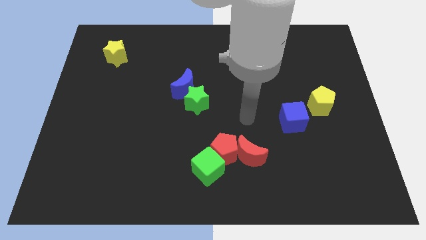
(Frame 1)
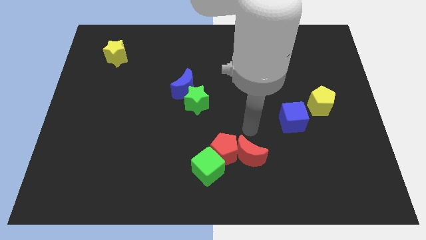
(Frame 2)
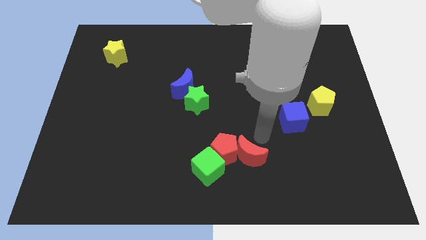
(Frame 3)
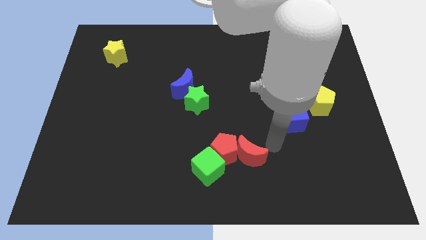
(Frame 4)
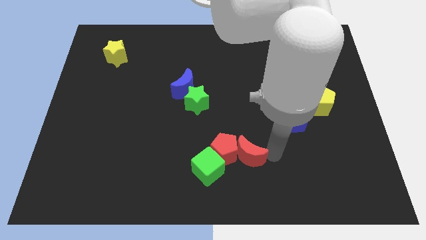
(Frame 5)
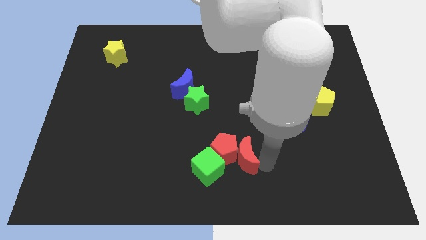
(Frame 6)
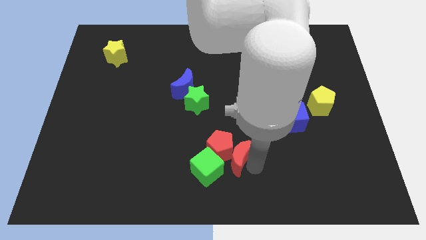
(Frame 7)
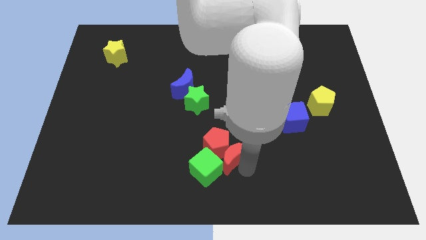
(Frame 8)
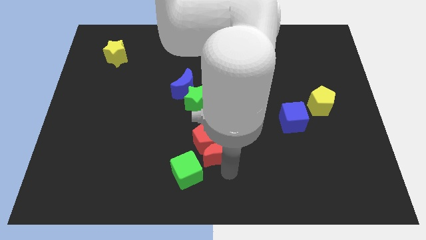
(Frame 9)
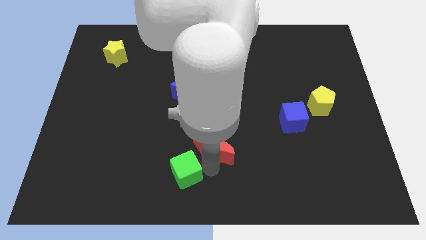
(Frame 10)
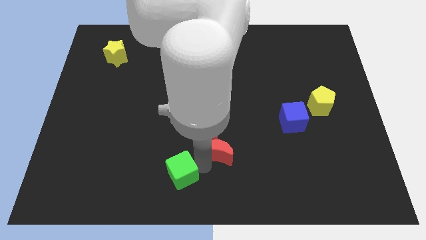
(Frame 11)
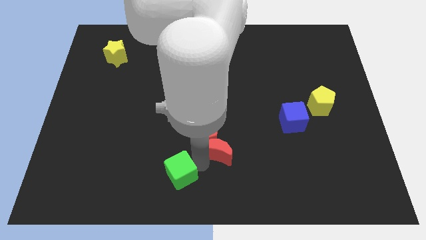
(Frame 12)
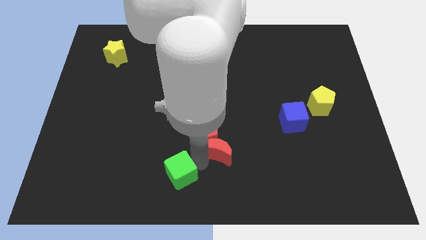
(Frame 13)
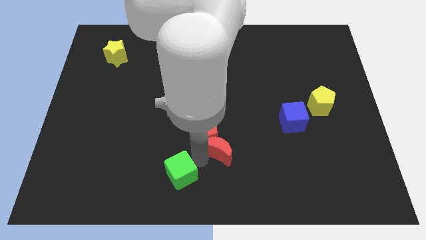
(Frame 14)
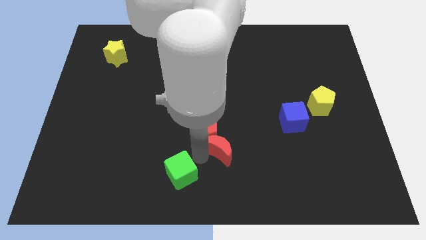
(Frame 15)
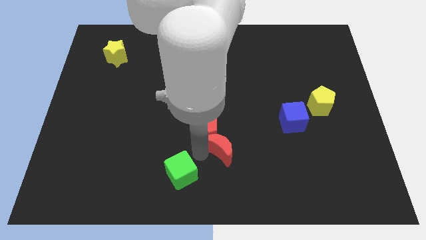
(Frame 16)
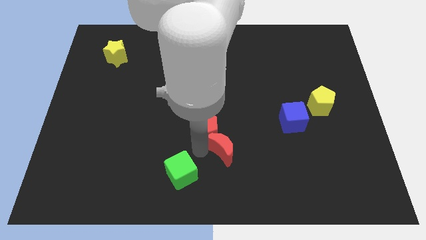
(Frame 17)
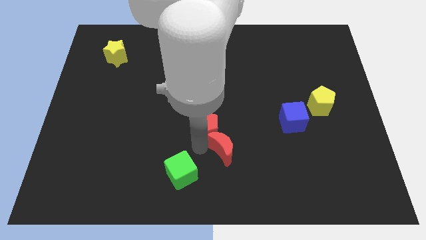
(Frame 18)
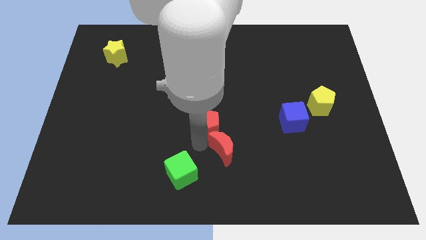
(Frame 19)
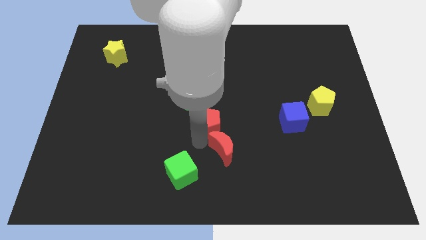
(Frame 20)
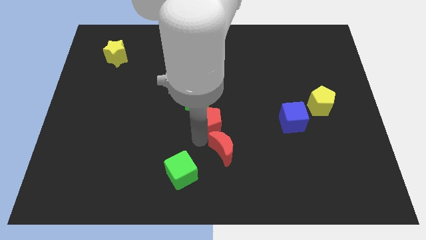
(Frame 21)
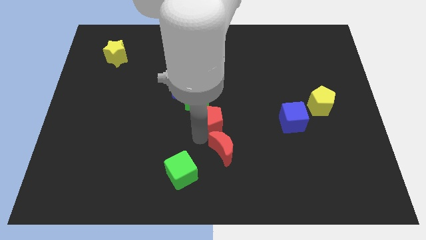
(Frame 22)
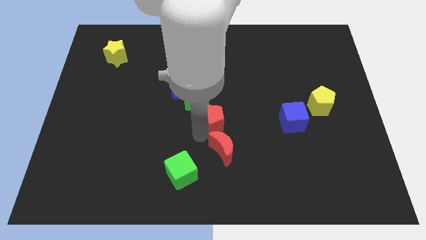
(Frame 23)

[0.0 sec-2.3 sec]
separate the red pentagon from the red moon and green cube

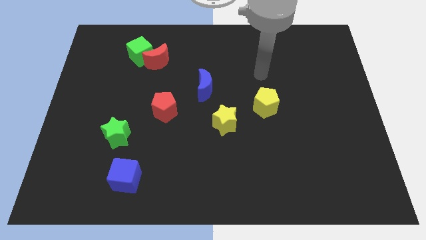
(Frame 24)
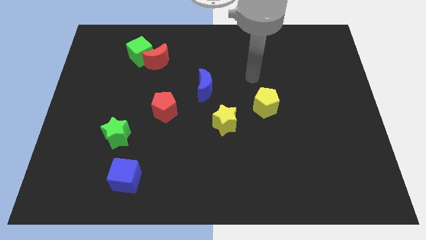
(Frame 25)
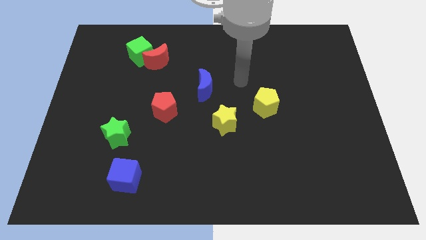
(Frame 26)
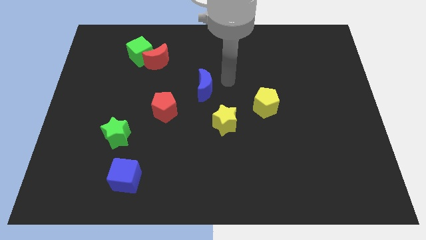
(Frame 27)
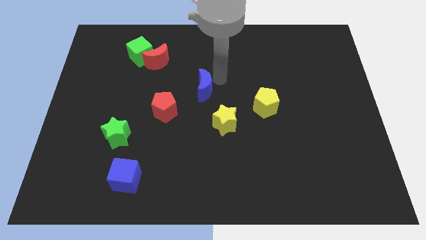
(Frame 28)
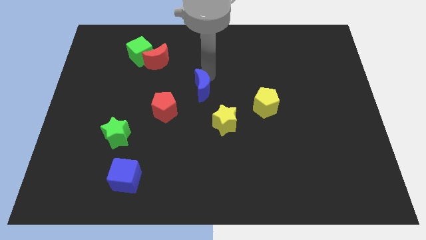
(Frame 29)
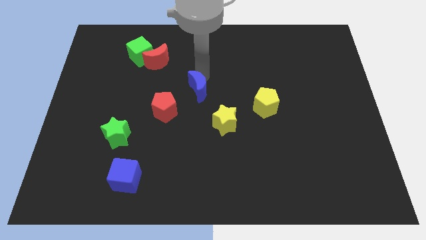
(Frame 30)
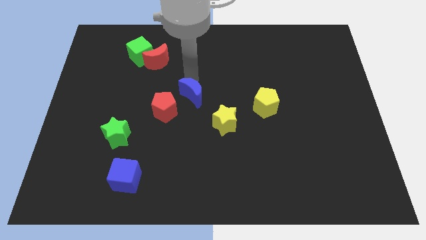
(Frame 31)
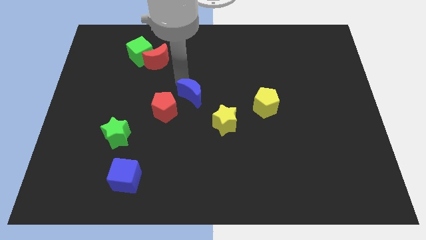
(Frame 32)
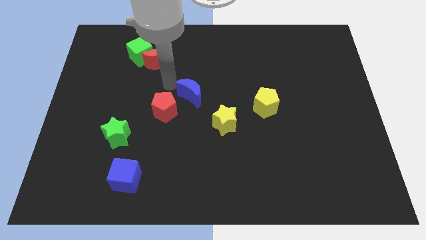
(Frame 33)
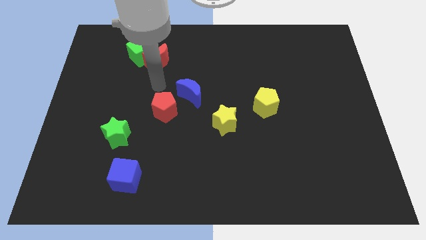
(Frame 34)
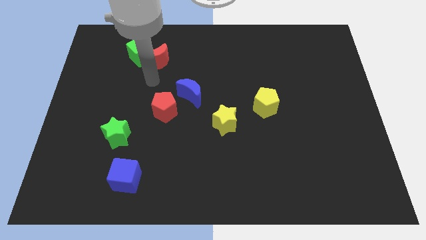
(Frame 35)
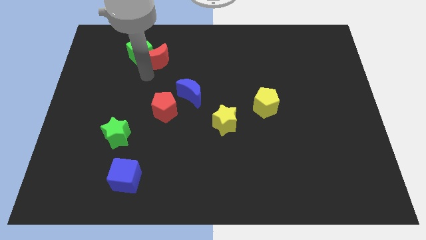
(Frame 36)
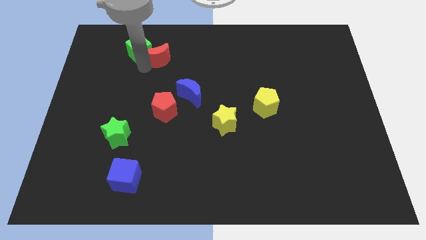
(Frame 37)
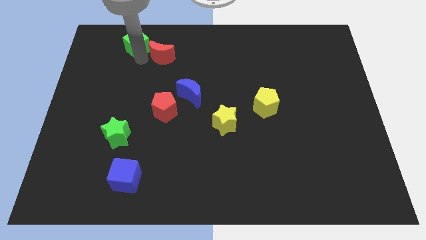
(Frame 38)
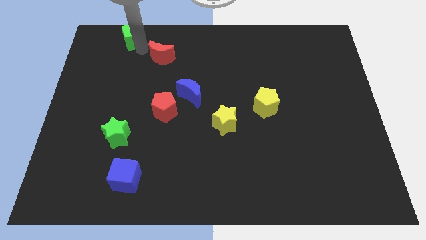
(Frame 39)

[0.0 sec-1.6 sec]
separate the red moon from the green cube

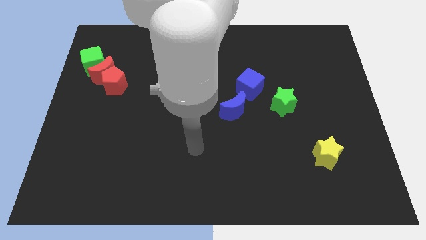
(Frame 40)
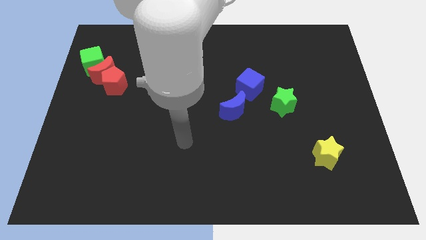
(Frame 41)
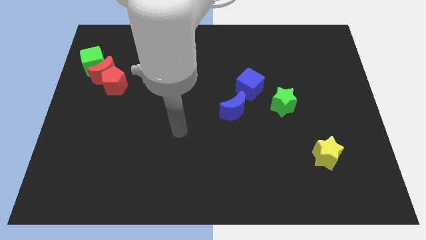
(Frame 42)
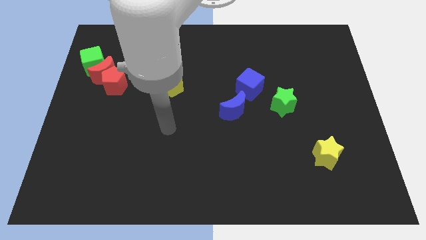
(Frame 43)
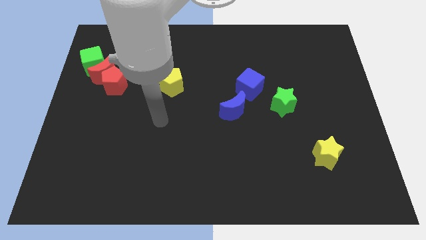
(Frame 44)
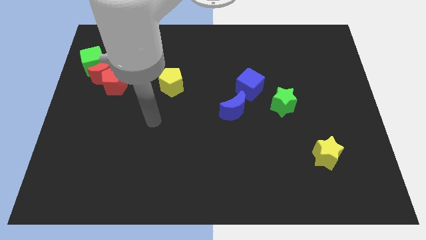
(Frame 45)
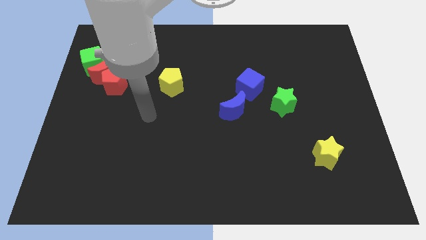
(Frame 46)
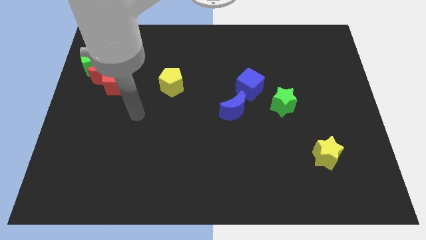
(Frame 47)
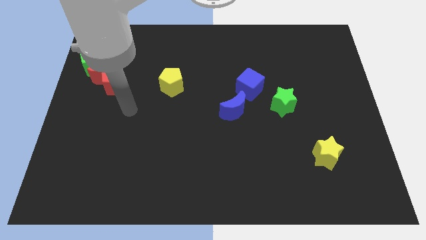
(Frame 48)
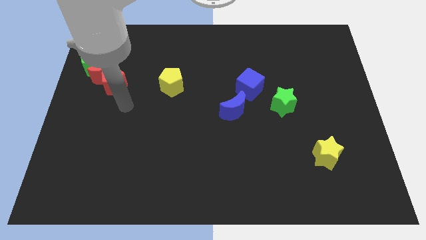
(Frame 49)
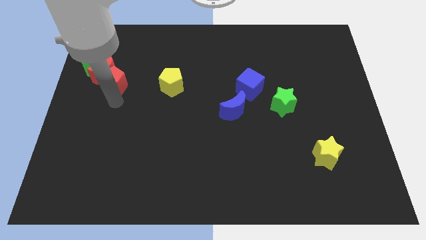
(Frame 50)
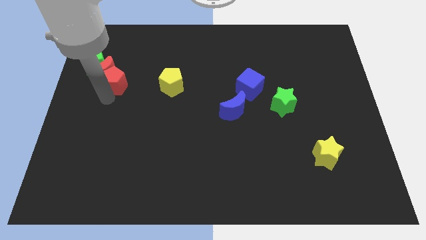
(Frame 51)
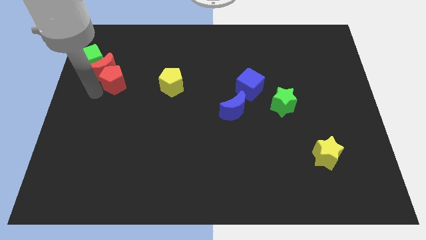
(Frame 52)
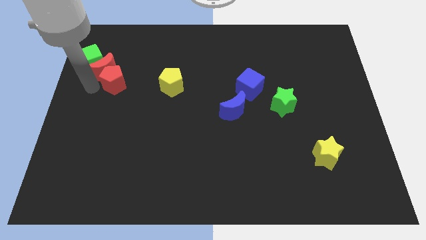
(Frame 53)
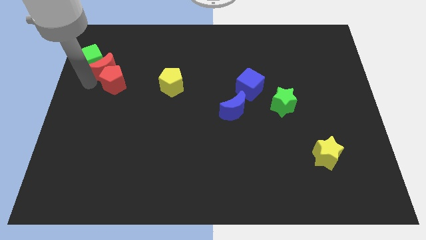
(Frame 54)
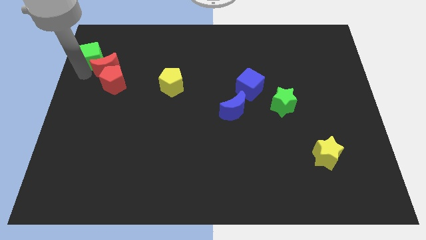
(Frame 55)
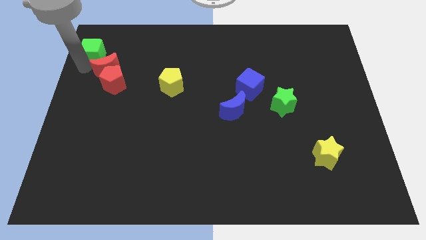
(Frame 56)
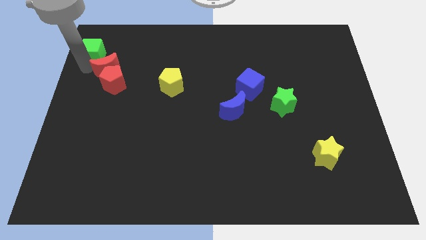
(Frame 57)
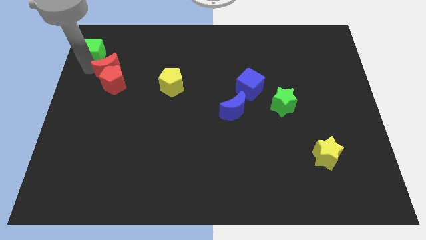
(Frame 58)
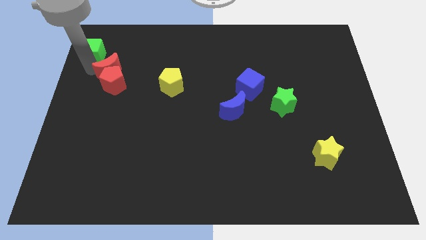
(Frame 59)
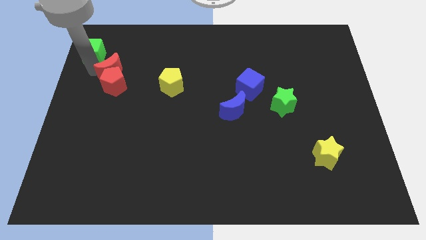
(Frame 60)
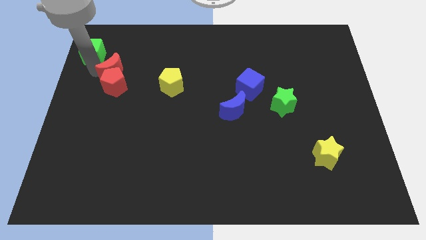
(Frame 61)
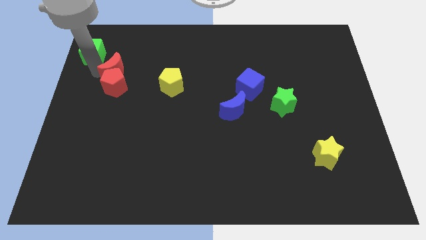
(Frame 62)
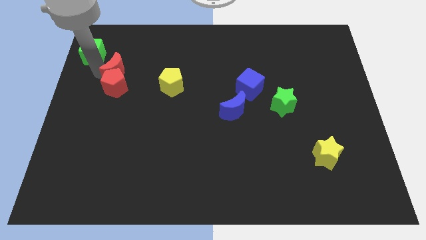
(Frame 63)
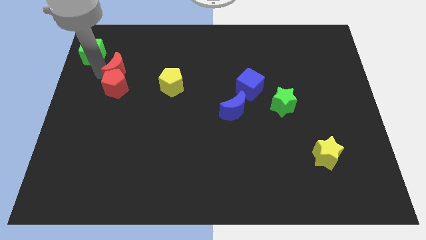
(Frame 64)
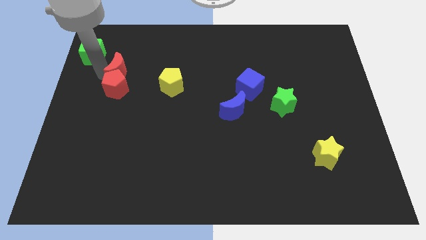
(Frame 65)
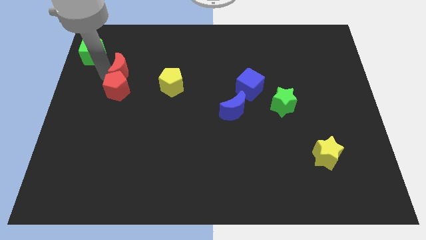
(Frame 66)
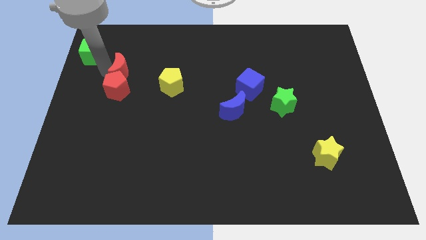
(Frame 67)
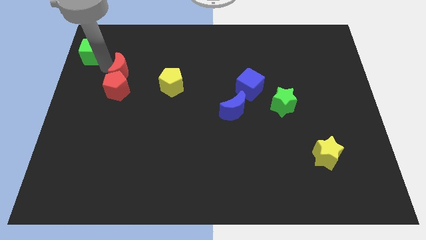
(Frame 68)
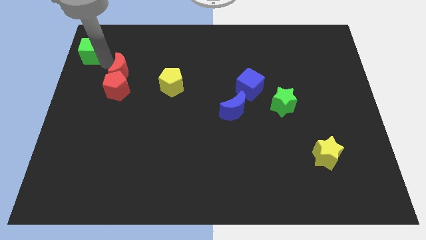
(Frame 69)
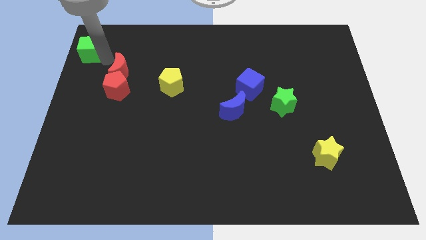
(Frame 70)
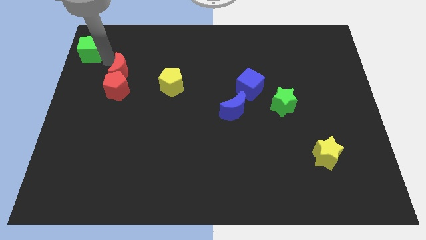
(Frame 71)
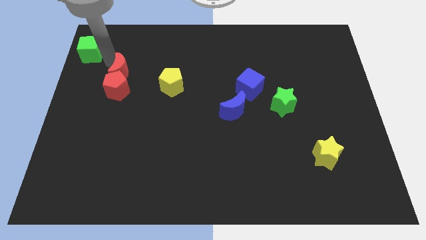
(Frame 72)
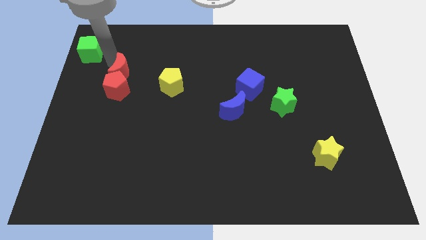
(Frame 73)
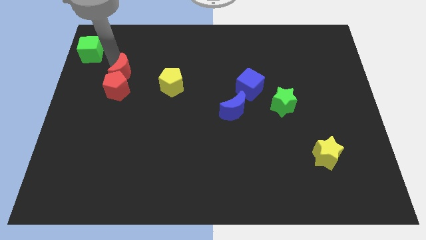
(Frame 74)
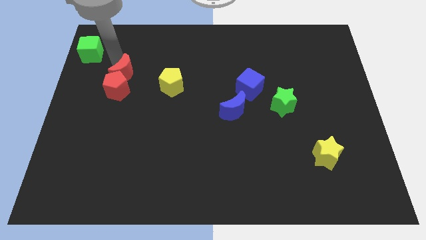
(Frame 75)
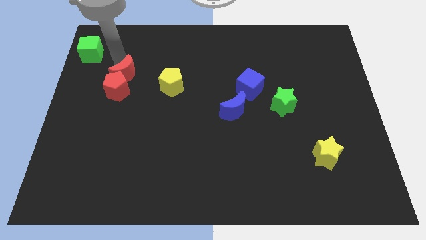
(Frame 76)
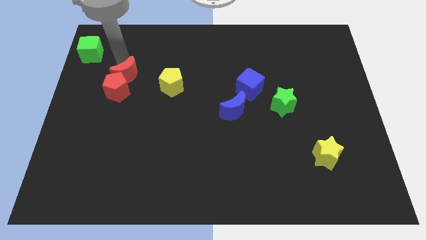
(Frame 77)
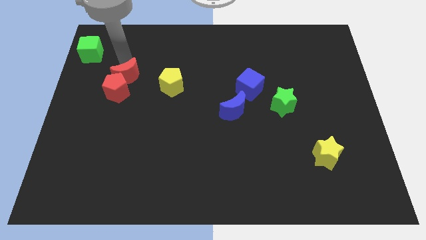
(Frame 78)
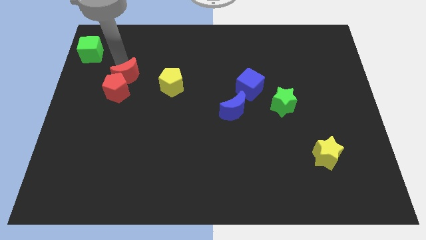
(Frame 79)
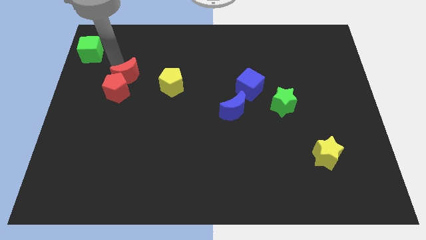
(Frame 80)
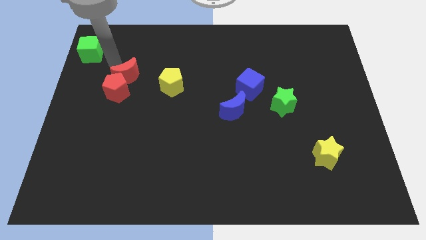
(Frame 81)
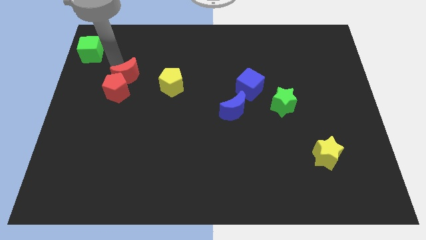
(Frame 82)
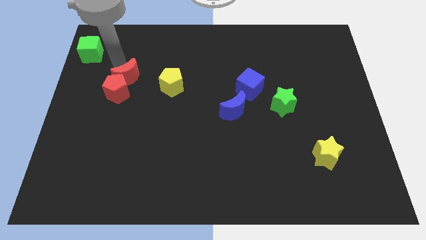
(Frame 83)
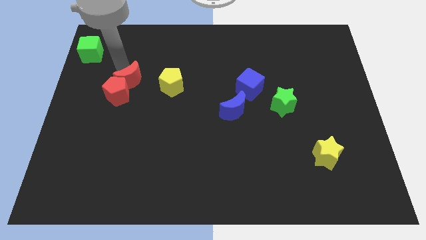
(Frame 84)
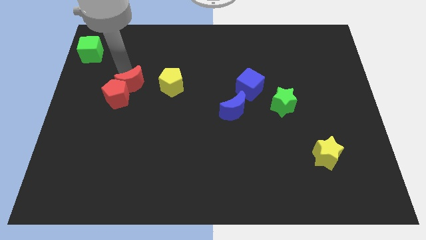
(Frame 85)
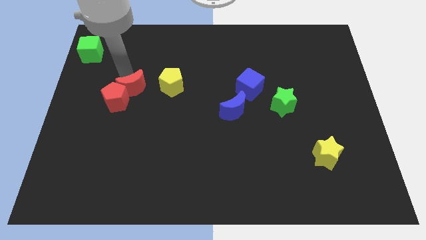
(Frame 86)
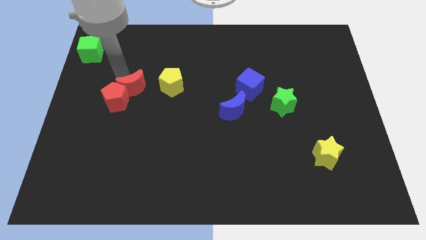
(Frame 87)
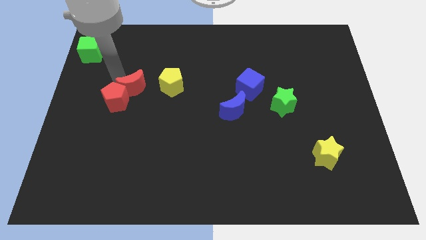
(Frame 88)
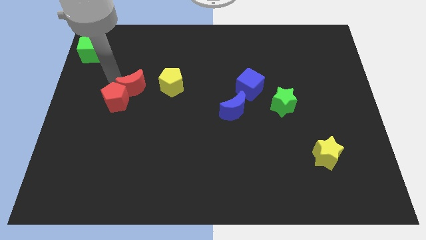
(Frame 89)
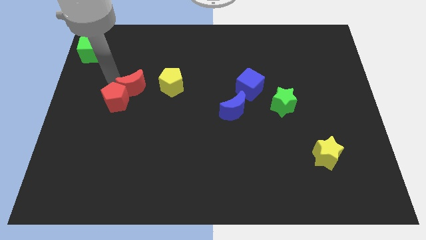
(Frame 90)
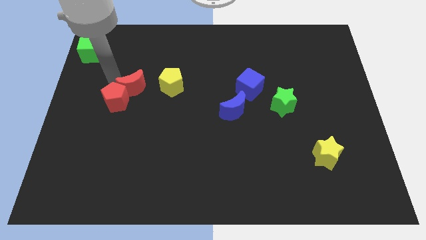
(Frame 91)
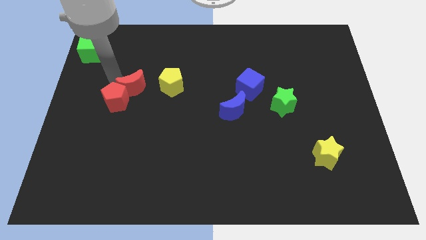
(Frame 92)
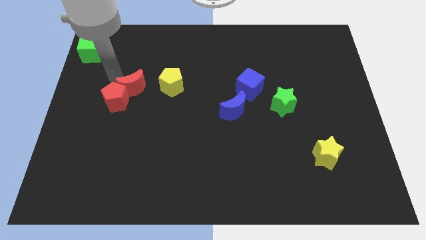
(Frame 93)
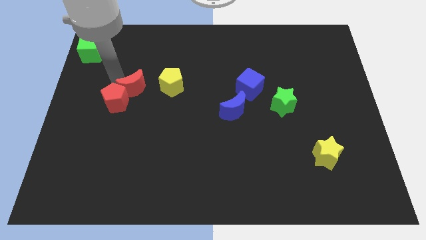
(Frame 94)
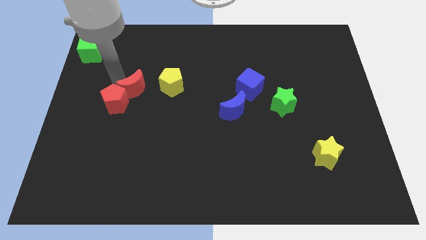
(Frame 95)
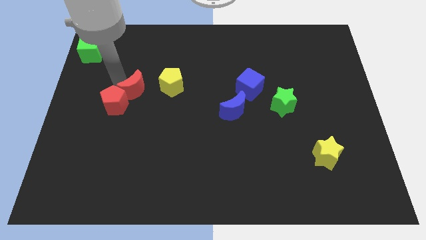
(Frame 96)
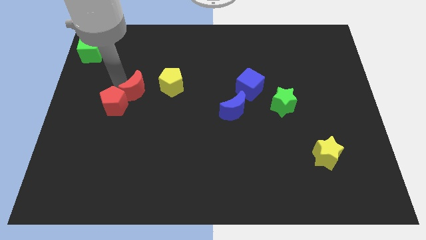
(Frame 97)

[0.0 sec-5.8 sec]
pull the red moon apart from the red pentagon and green cube
